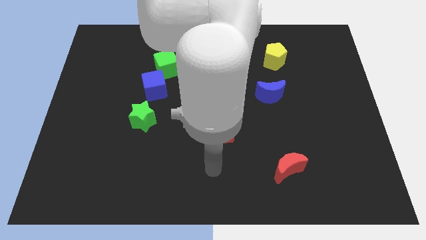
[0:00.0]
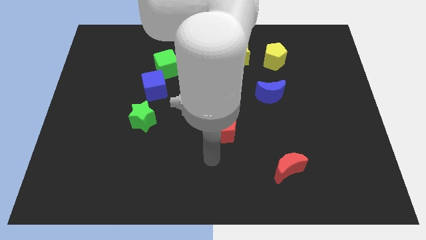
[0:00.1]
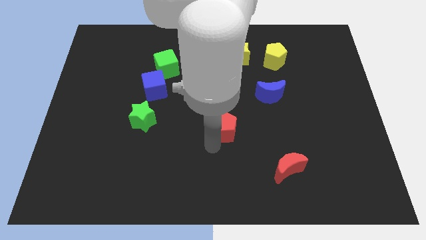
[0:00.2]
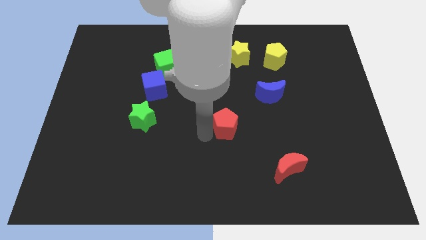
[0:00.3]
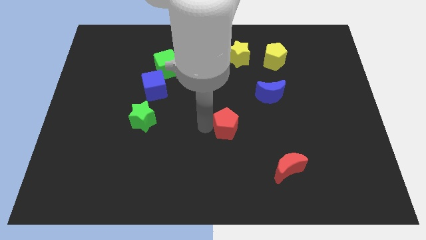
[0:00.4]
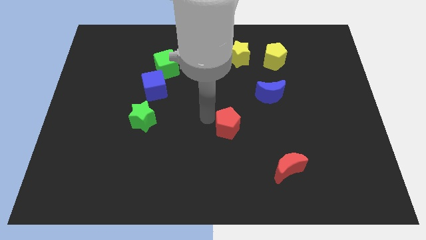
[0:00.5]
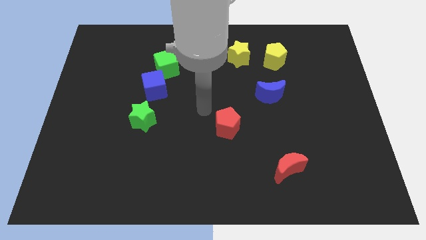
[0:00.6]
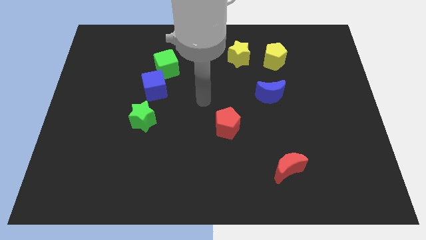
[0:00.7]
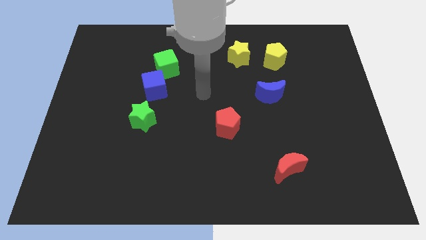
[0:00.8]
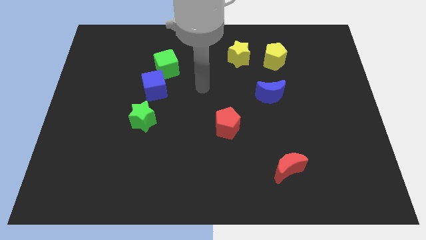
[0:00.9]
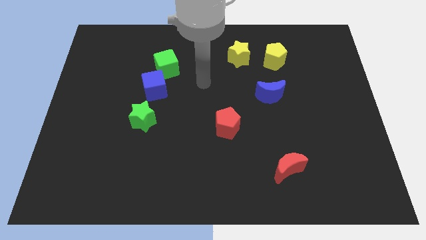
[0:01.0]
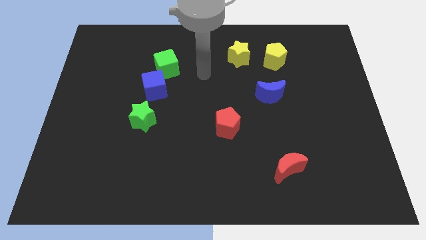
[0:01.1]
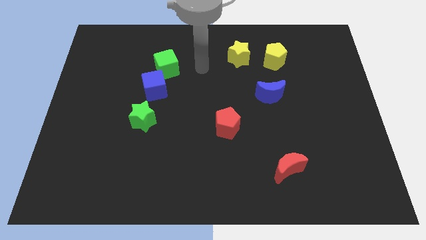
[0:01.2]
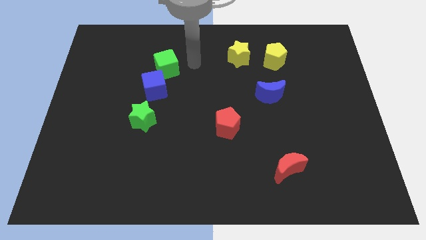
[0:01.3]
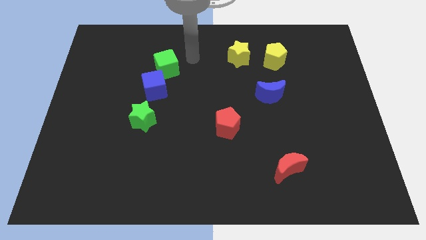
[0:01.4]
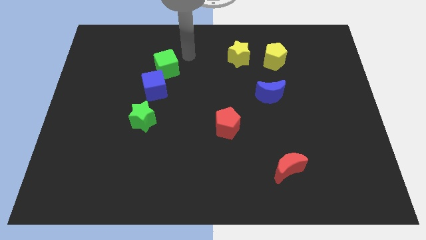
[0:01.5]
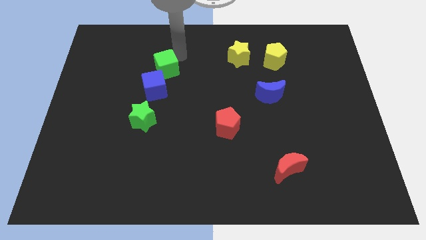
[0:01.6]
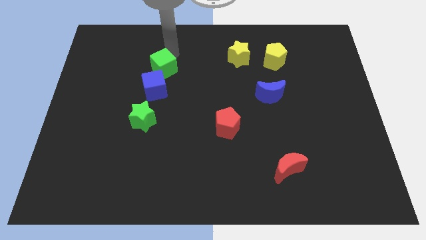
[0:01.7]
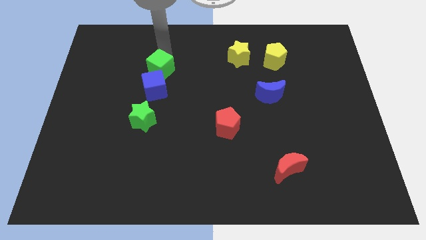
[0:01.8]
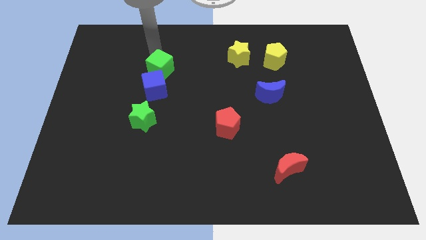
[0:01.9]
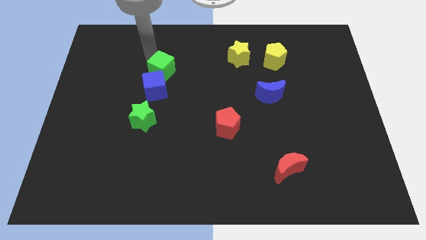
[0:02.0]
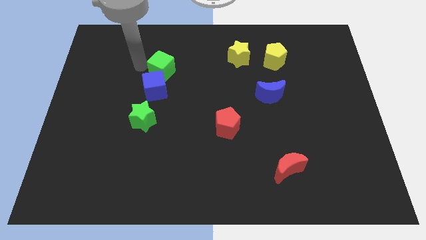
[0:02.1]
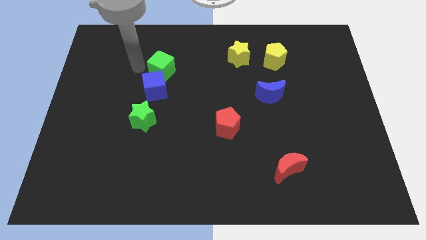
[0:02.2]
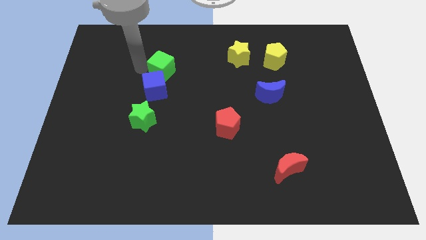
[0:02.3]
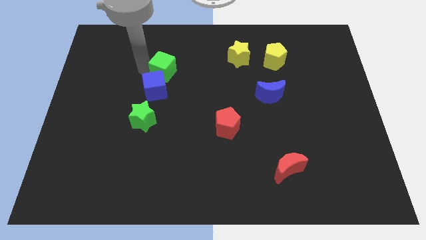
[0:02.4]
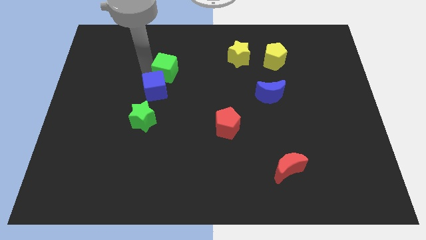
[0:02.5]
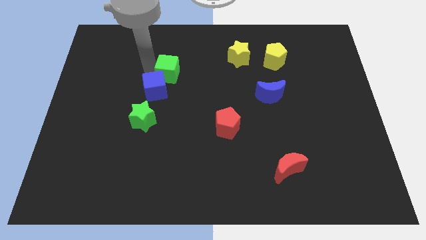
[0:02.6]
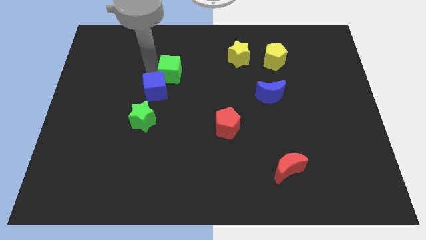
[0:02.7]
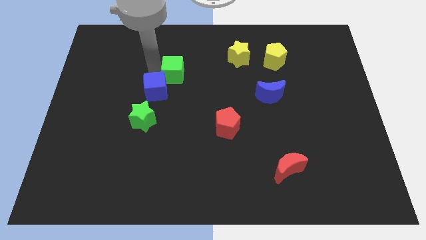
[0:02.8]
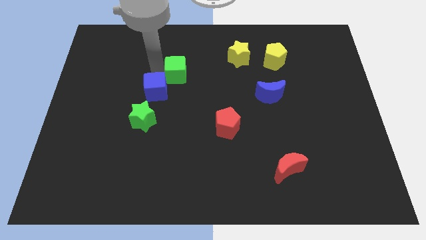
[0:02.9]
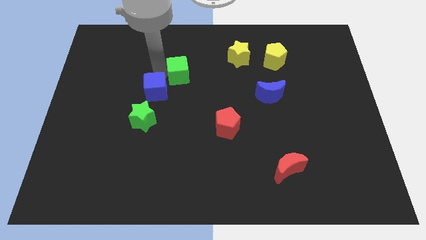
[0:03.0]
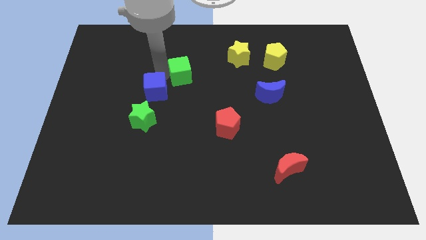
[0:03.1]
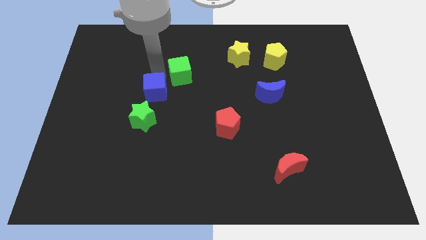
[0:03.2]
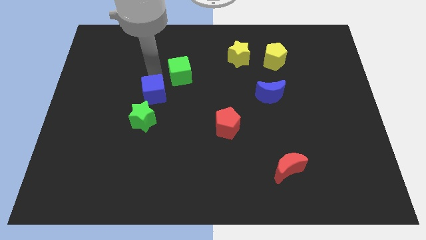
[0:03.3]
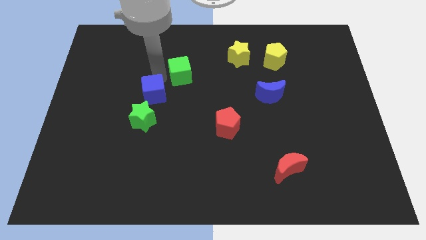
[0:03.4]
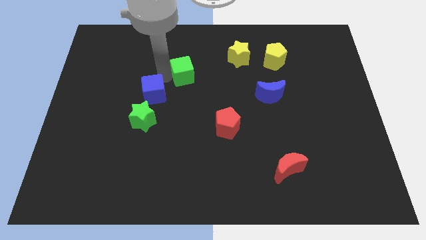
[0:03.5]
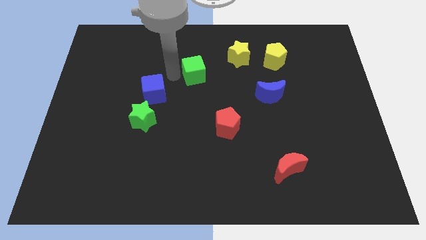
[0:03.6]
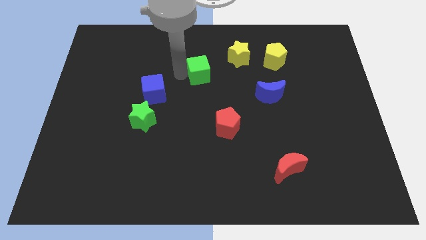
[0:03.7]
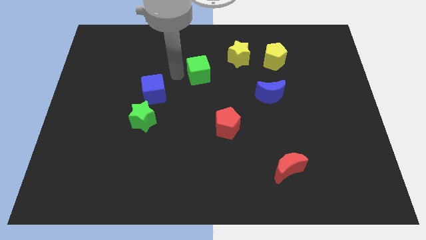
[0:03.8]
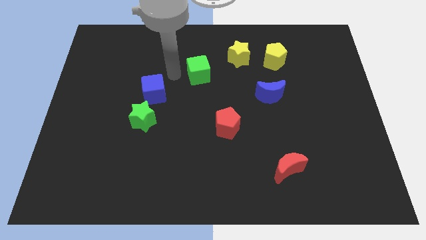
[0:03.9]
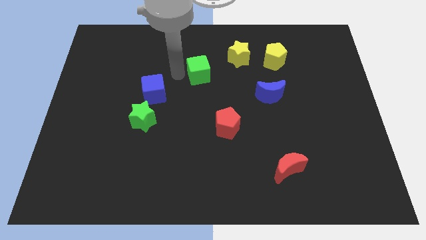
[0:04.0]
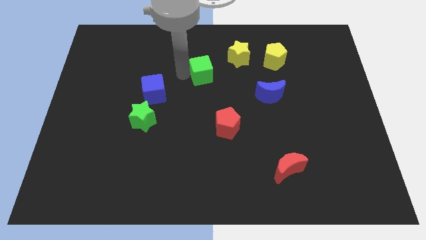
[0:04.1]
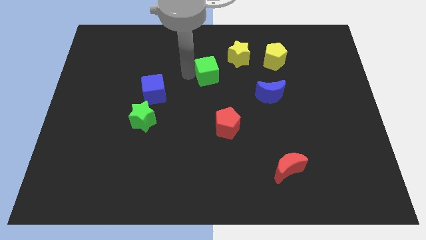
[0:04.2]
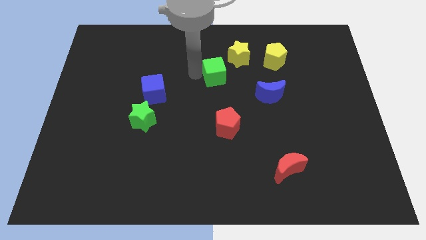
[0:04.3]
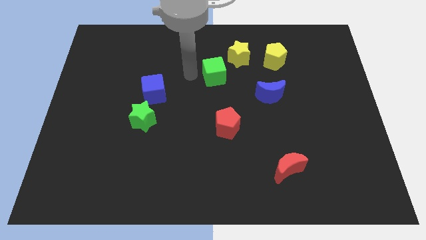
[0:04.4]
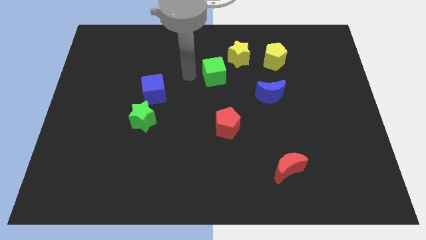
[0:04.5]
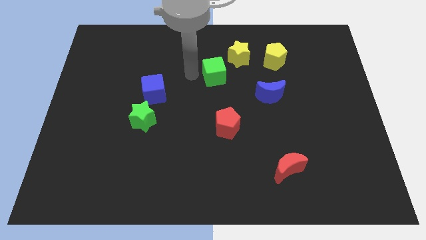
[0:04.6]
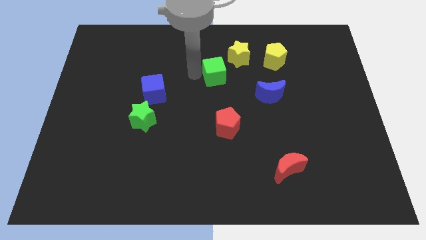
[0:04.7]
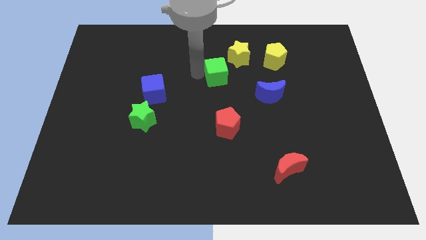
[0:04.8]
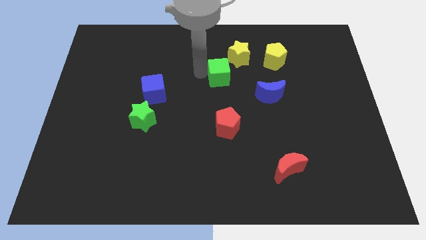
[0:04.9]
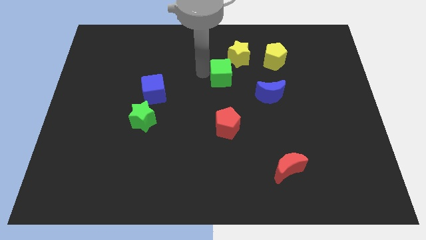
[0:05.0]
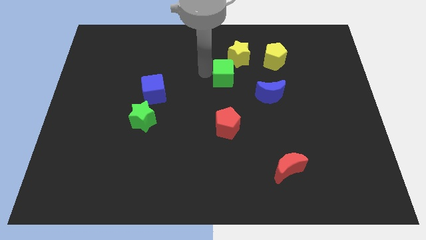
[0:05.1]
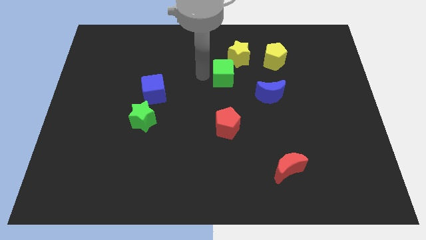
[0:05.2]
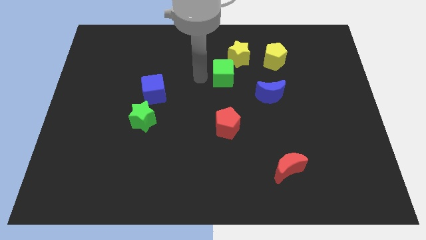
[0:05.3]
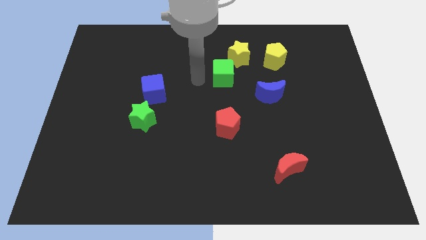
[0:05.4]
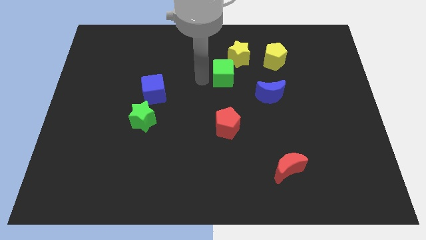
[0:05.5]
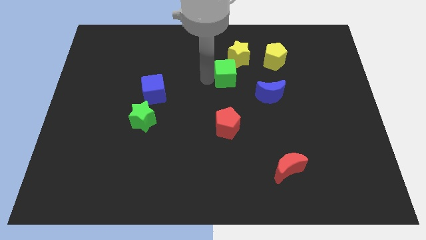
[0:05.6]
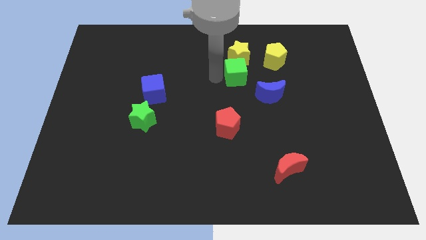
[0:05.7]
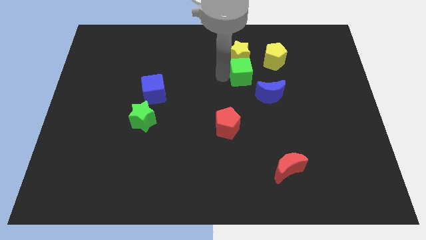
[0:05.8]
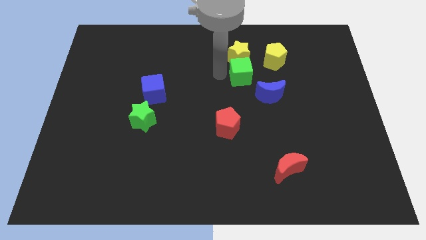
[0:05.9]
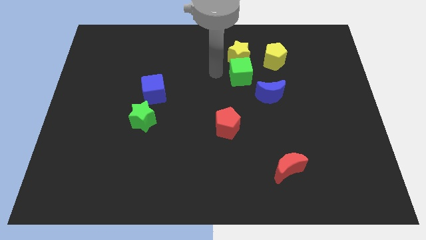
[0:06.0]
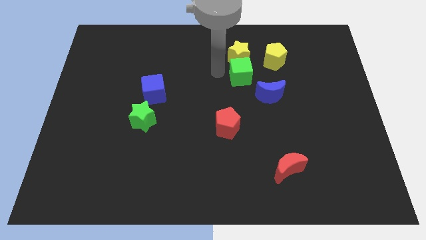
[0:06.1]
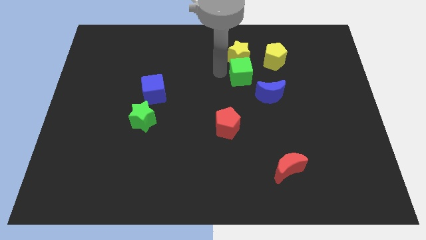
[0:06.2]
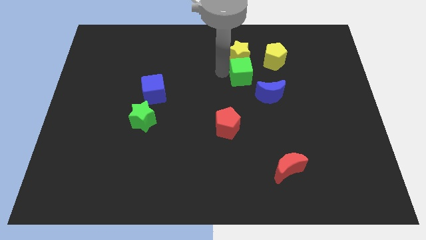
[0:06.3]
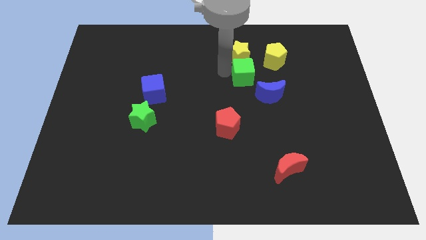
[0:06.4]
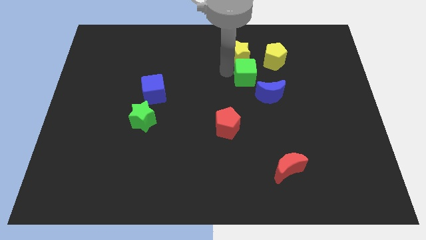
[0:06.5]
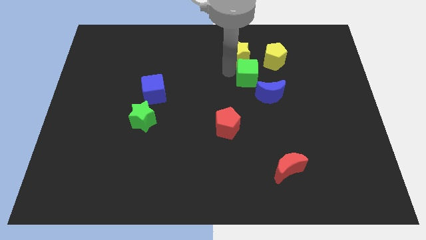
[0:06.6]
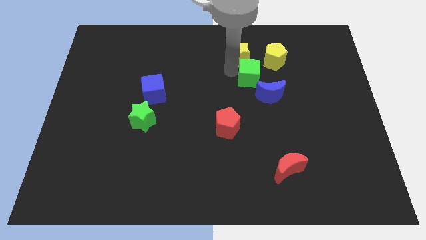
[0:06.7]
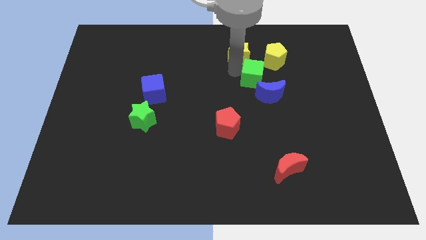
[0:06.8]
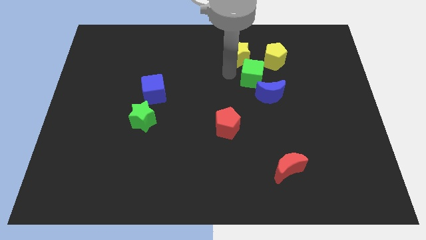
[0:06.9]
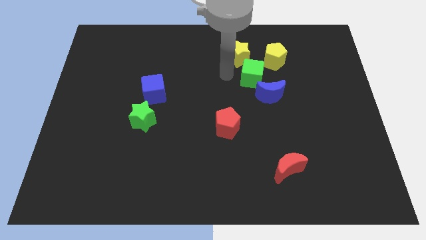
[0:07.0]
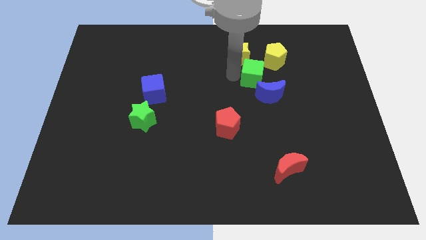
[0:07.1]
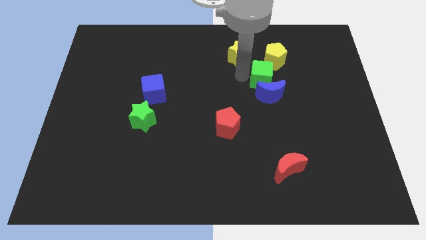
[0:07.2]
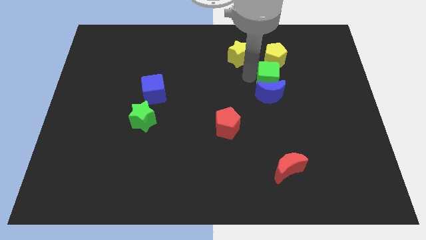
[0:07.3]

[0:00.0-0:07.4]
push the green cube to the top right of the blue moon
